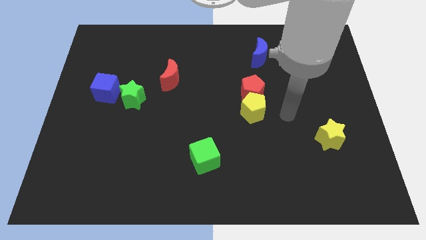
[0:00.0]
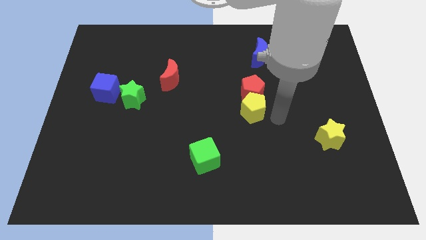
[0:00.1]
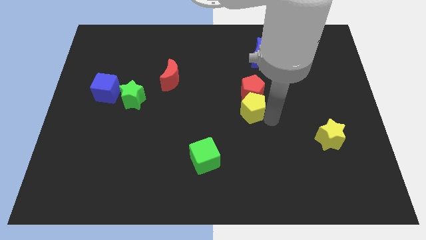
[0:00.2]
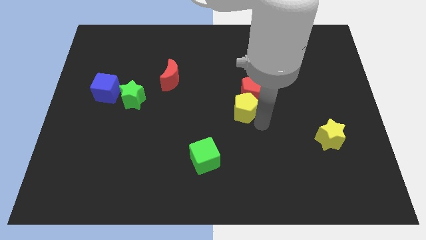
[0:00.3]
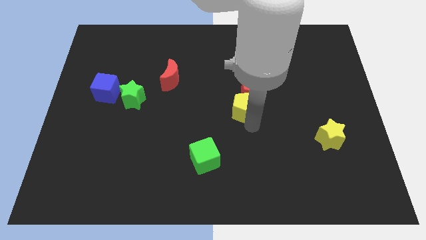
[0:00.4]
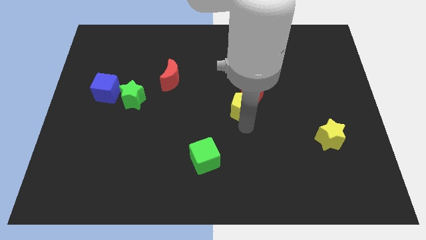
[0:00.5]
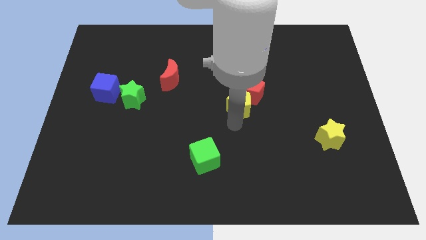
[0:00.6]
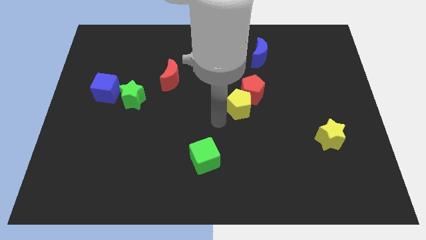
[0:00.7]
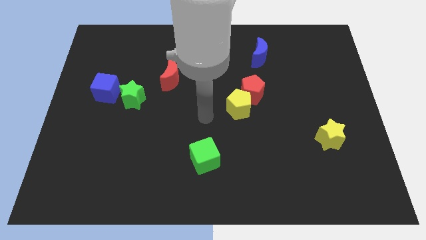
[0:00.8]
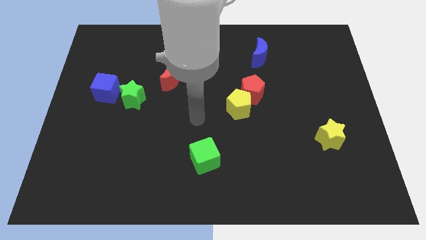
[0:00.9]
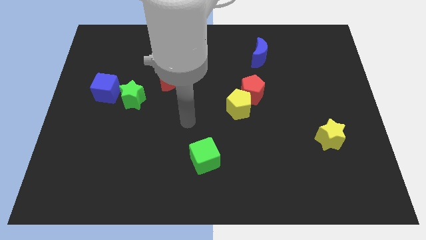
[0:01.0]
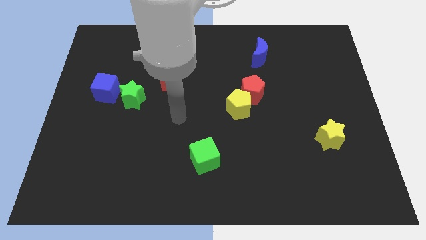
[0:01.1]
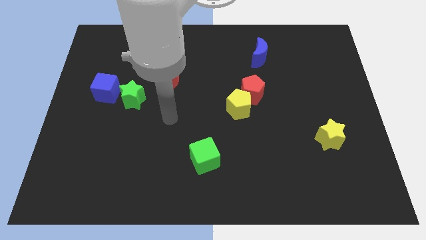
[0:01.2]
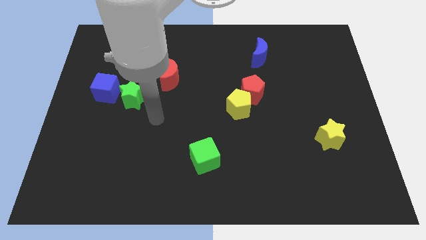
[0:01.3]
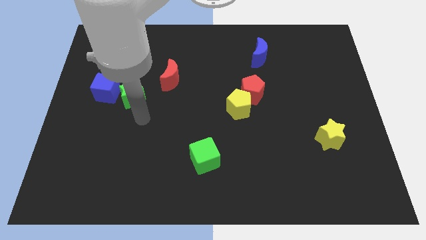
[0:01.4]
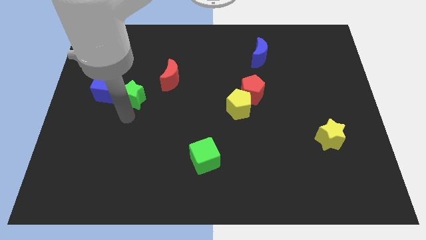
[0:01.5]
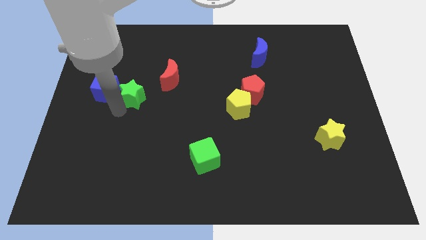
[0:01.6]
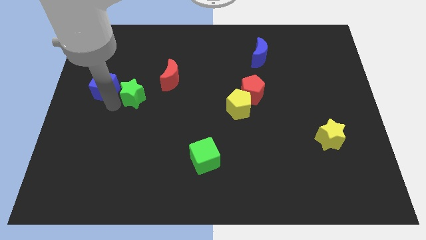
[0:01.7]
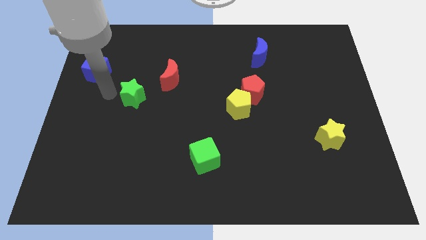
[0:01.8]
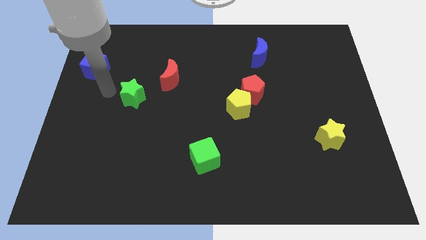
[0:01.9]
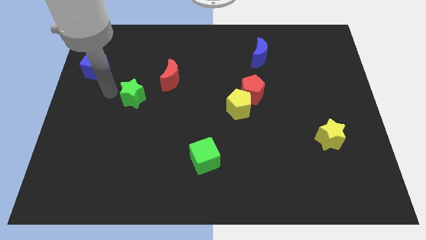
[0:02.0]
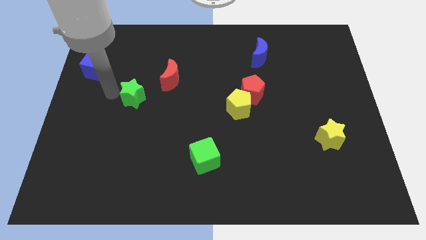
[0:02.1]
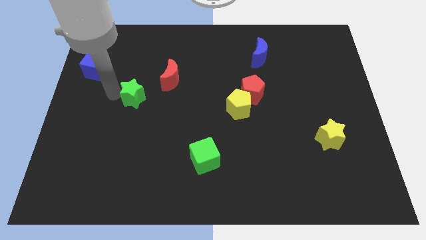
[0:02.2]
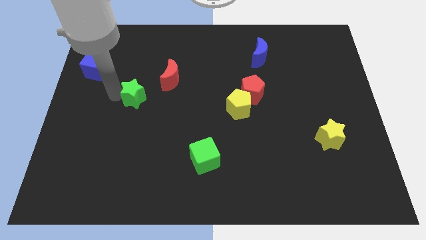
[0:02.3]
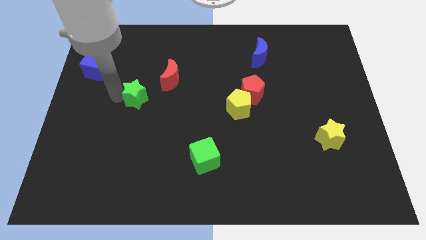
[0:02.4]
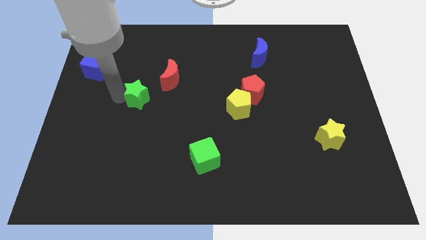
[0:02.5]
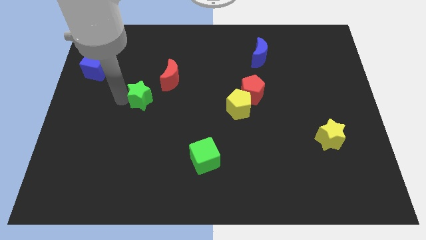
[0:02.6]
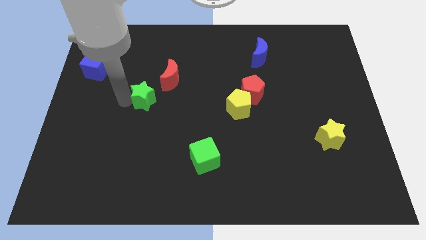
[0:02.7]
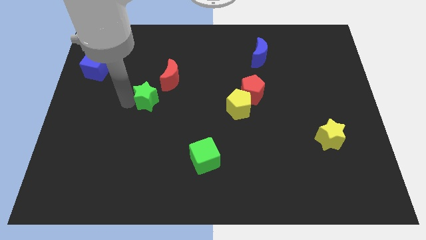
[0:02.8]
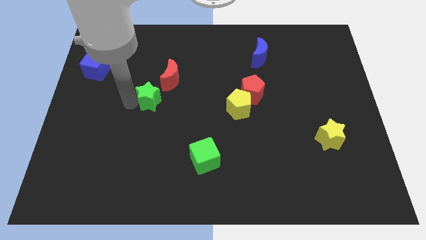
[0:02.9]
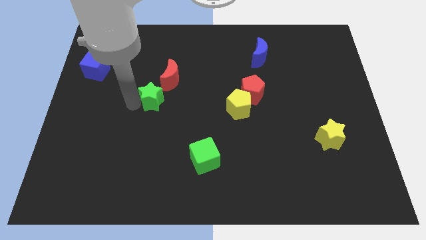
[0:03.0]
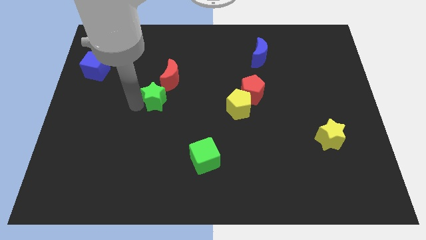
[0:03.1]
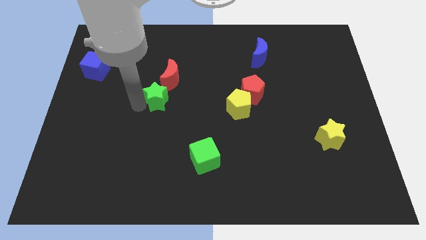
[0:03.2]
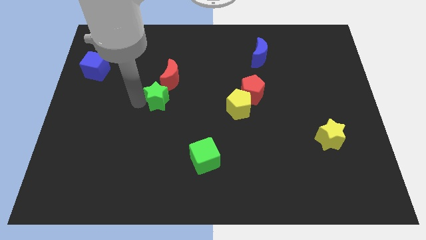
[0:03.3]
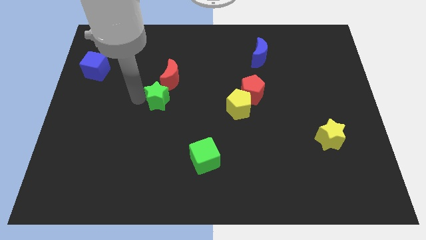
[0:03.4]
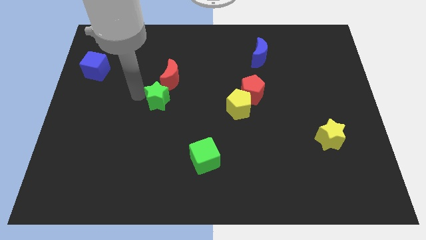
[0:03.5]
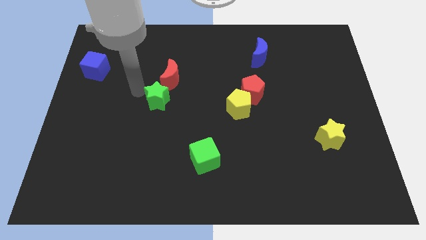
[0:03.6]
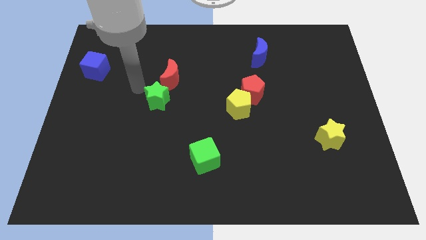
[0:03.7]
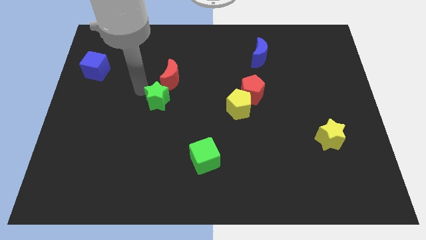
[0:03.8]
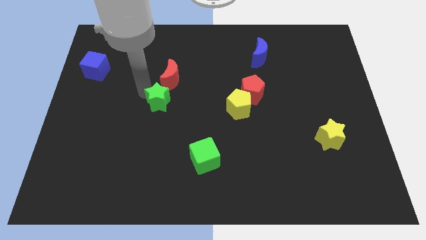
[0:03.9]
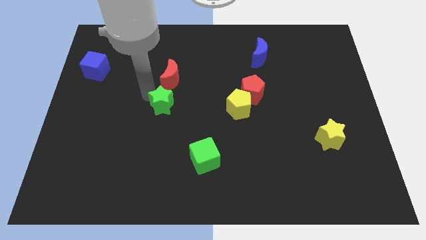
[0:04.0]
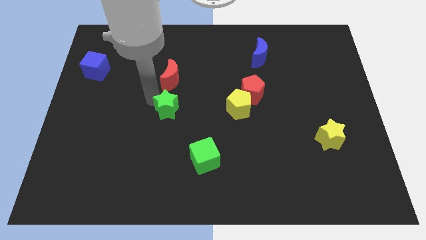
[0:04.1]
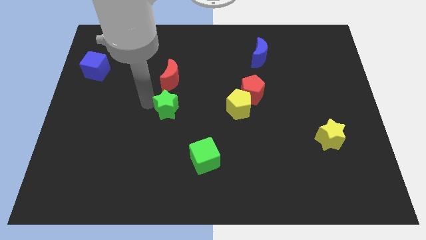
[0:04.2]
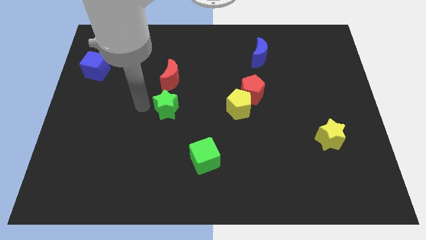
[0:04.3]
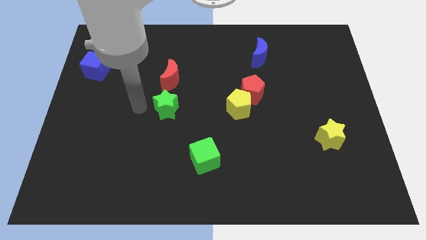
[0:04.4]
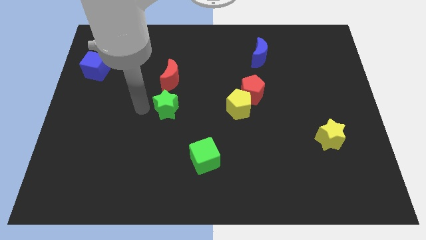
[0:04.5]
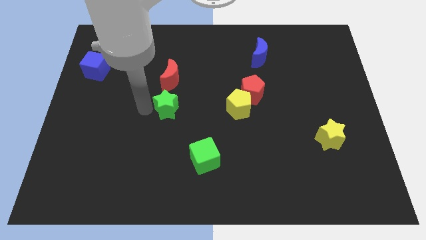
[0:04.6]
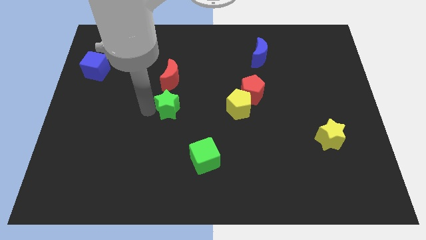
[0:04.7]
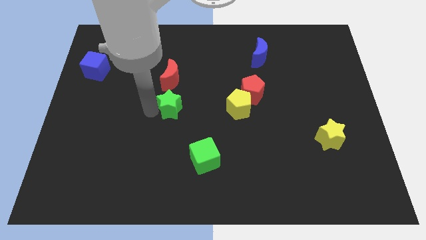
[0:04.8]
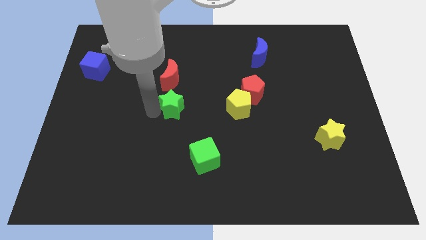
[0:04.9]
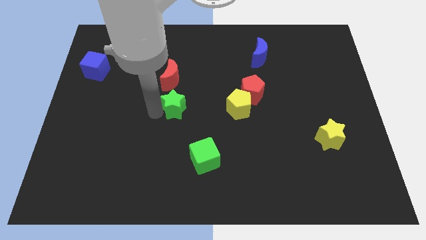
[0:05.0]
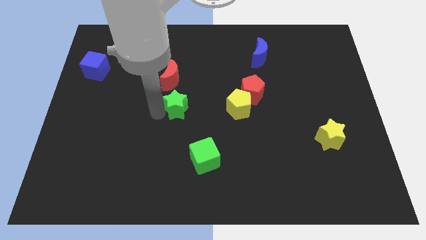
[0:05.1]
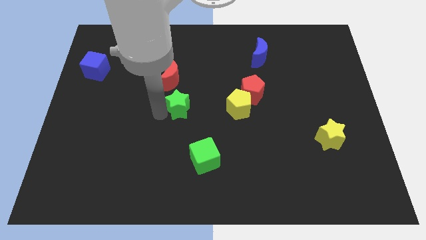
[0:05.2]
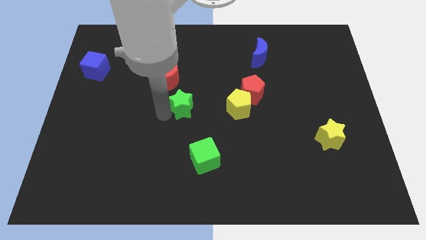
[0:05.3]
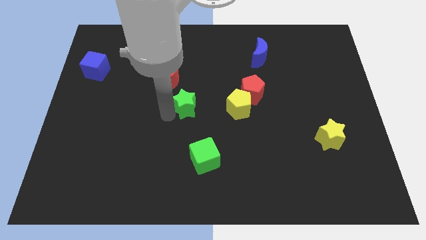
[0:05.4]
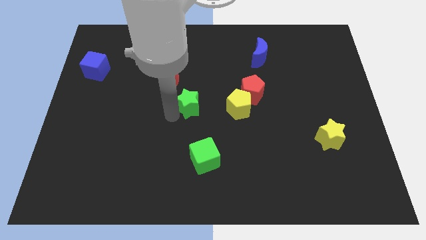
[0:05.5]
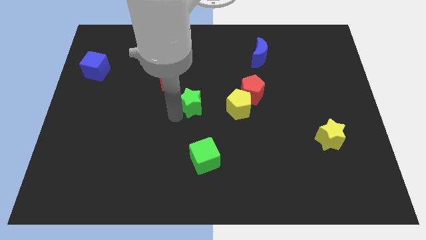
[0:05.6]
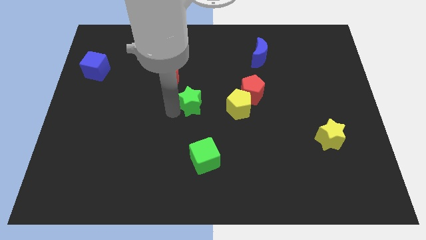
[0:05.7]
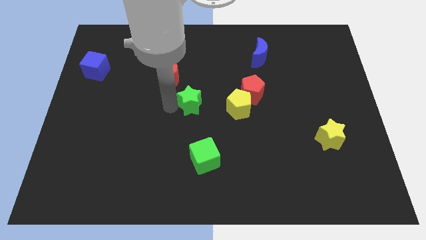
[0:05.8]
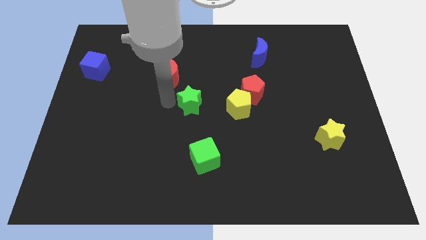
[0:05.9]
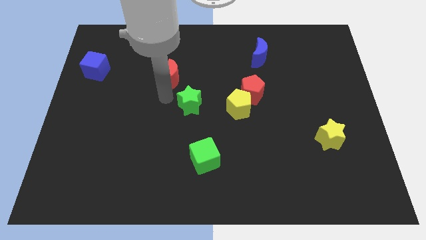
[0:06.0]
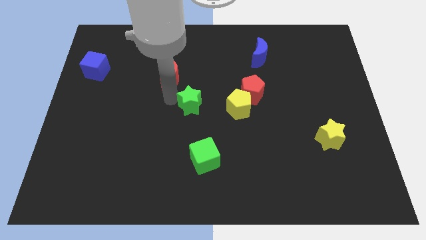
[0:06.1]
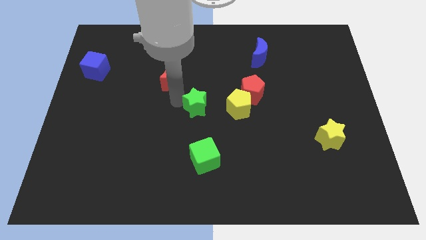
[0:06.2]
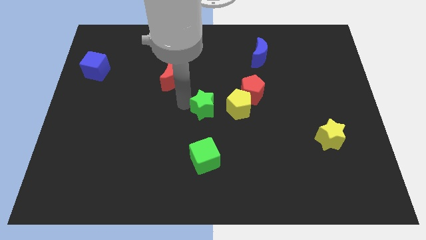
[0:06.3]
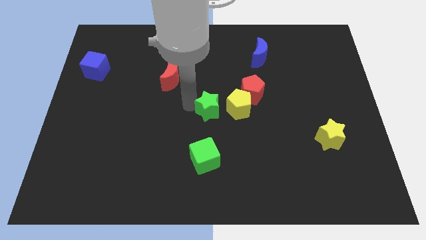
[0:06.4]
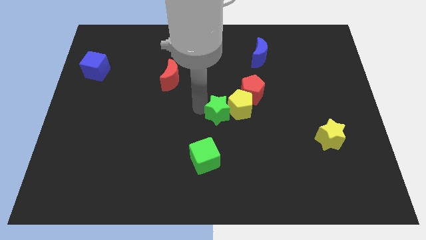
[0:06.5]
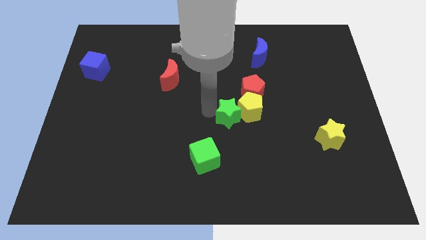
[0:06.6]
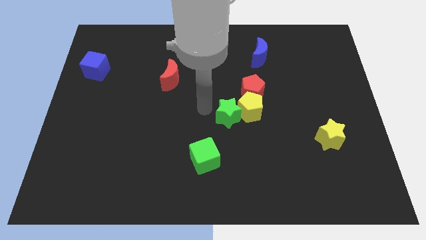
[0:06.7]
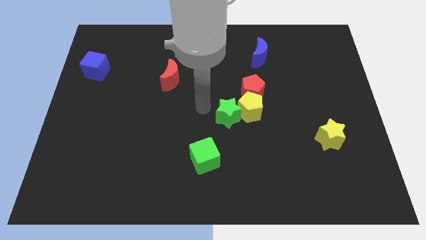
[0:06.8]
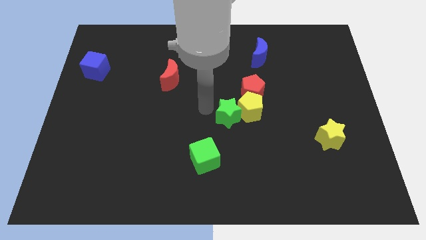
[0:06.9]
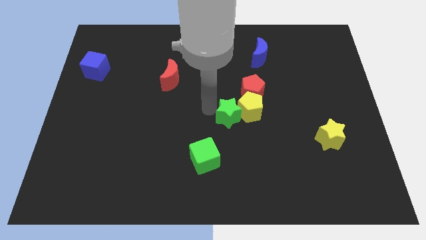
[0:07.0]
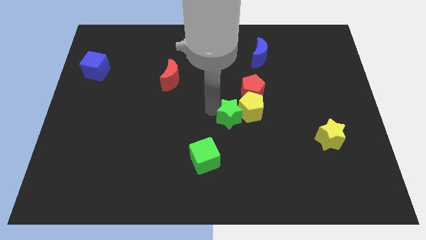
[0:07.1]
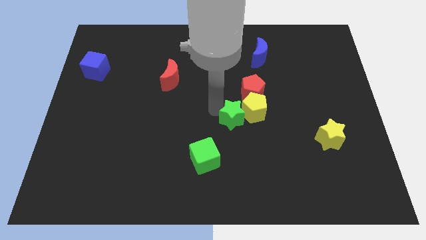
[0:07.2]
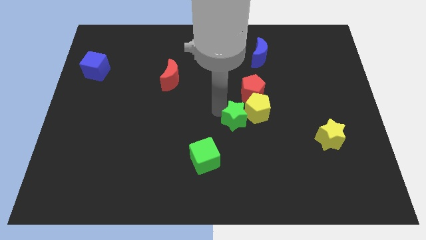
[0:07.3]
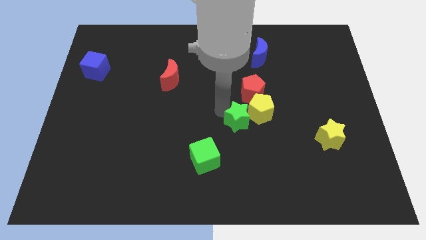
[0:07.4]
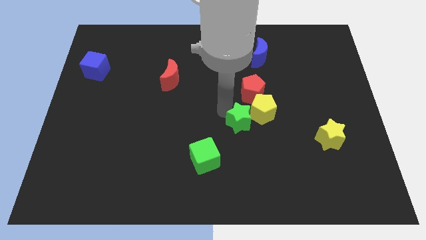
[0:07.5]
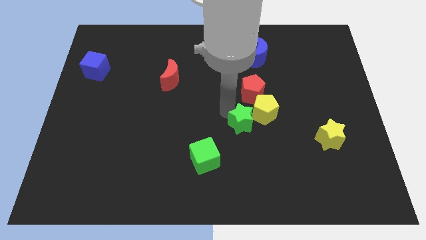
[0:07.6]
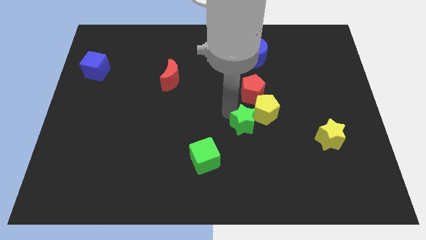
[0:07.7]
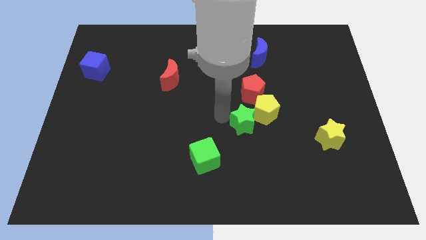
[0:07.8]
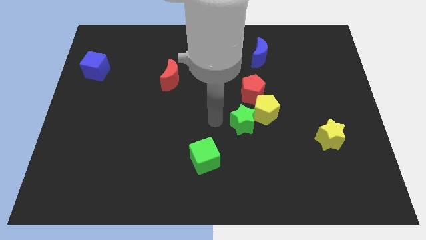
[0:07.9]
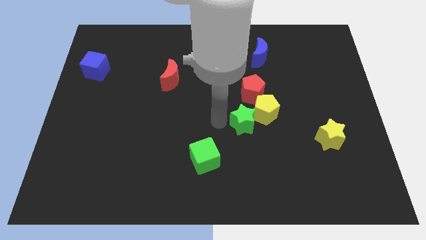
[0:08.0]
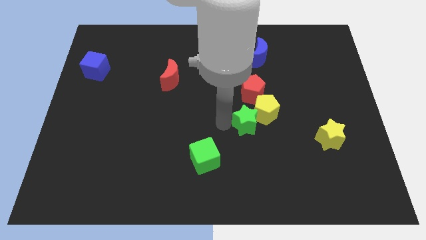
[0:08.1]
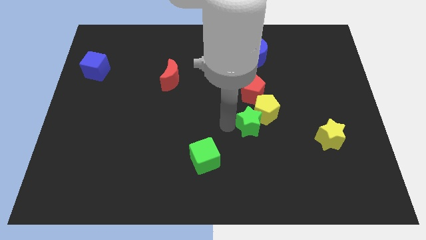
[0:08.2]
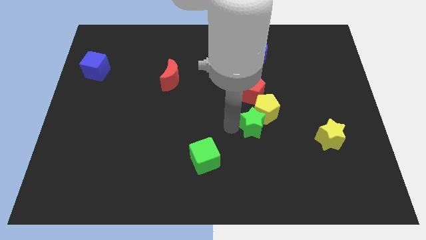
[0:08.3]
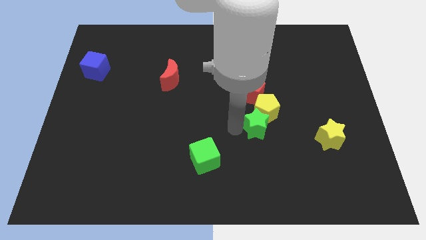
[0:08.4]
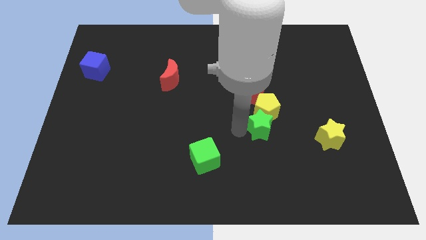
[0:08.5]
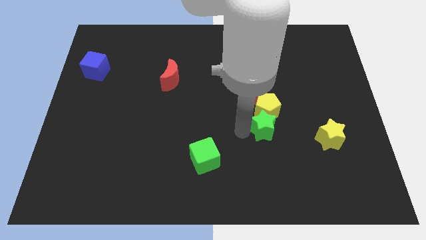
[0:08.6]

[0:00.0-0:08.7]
slide the green star diagonally down and to the right of the yellow pentagon

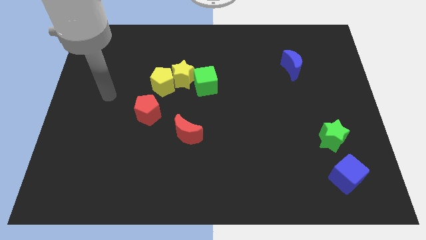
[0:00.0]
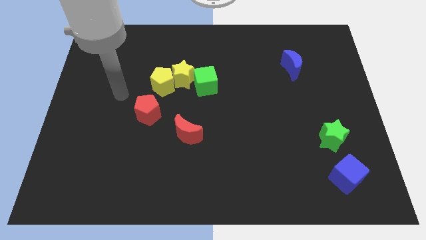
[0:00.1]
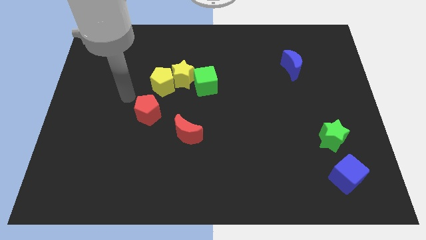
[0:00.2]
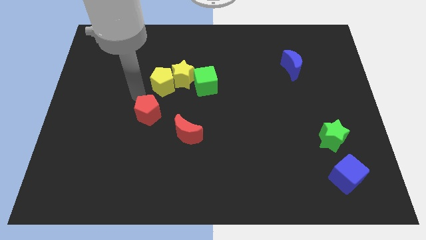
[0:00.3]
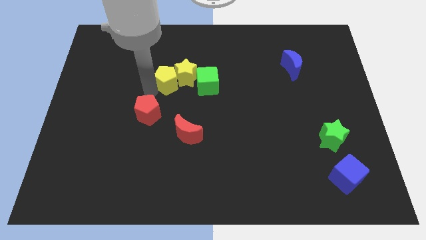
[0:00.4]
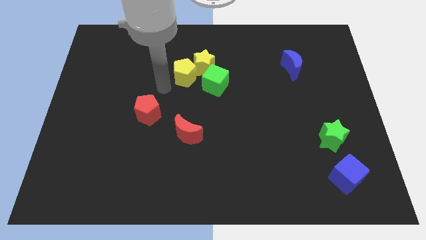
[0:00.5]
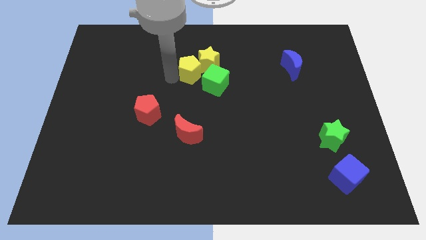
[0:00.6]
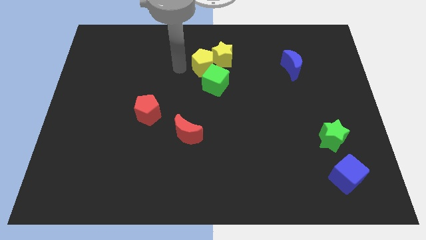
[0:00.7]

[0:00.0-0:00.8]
push the yellow star to the top right side of the green cube
